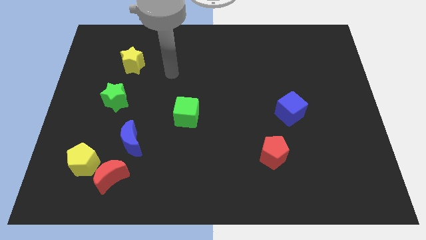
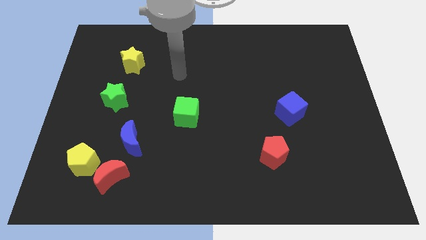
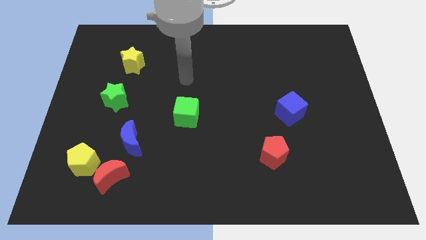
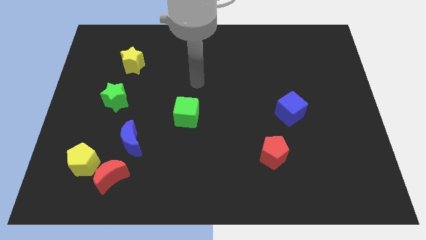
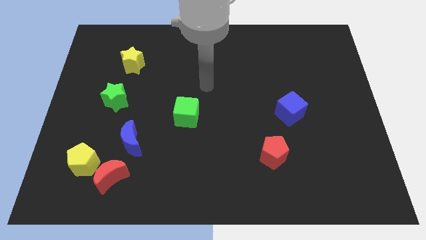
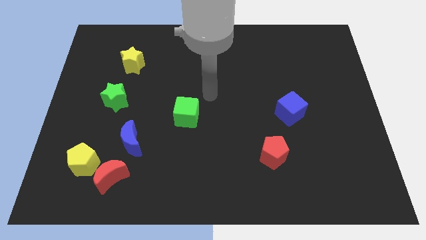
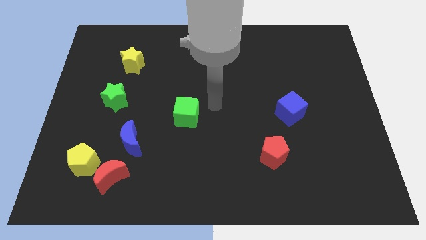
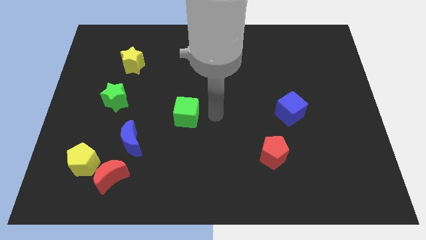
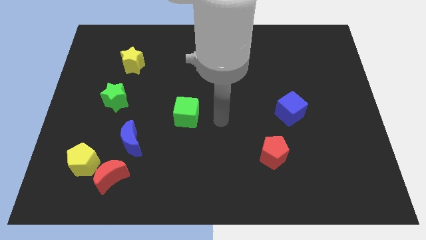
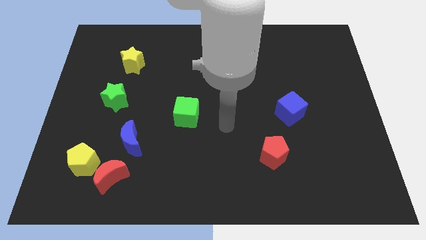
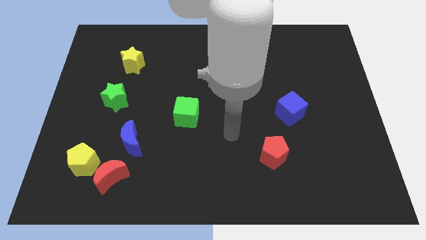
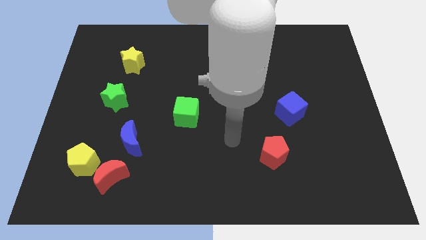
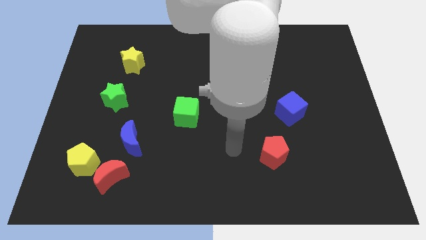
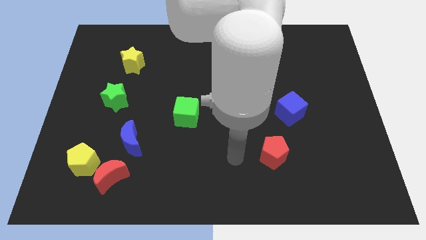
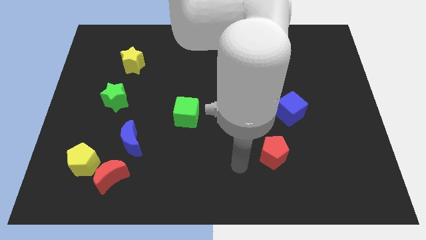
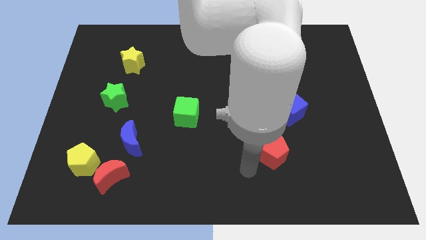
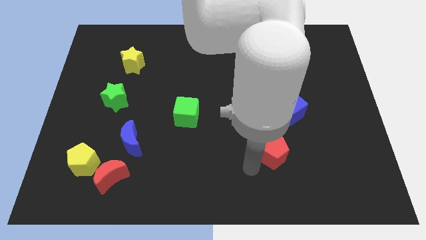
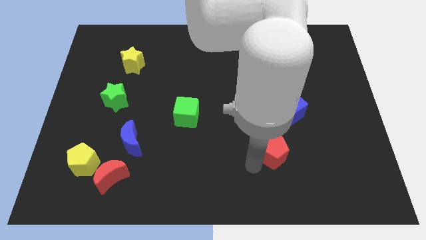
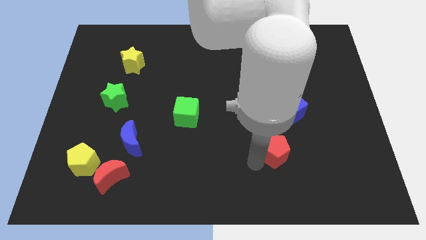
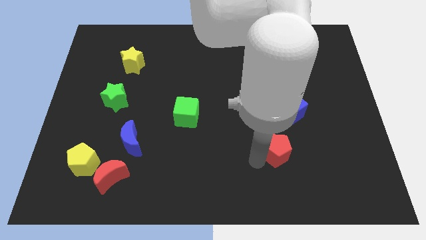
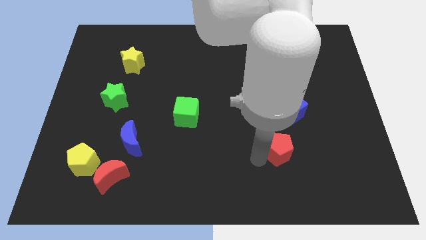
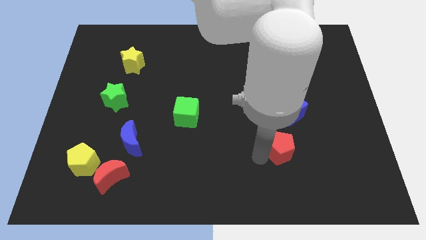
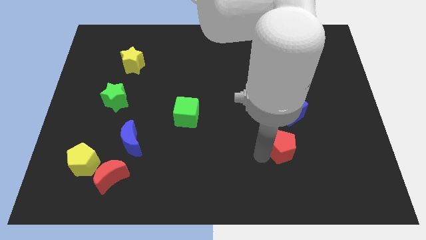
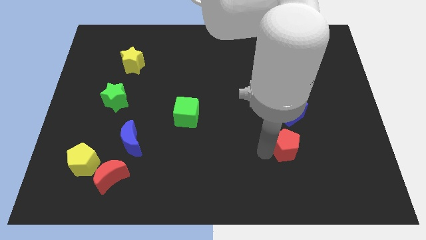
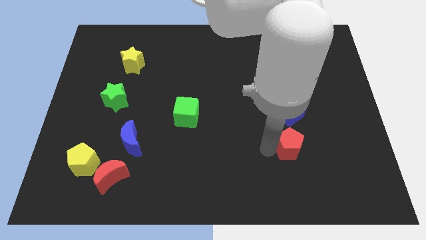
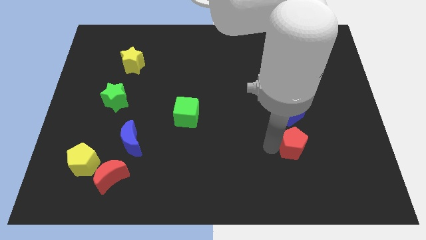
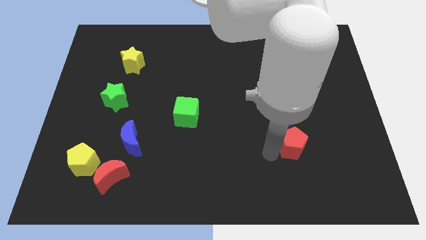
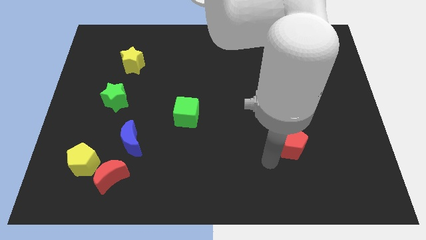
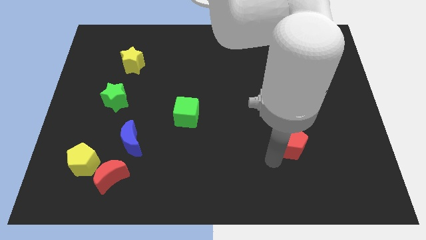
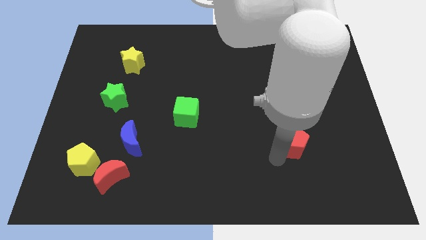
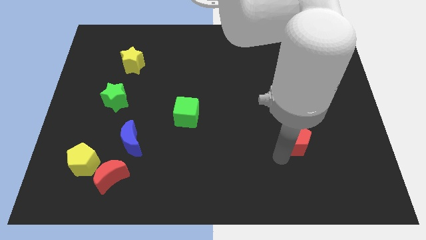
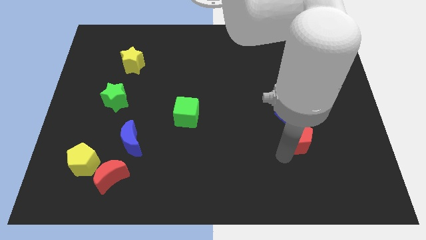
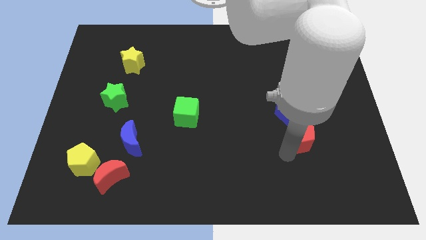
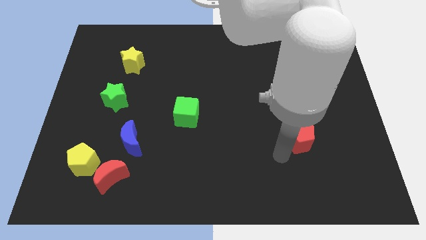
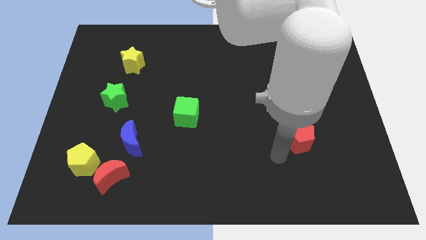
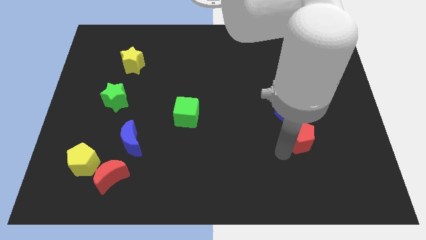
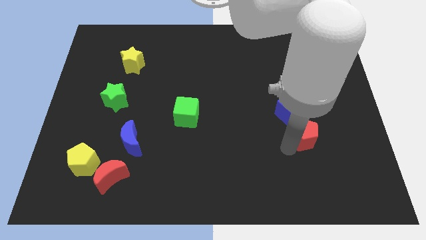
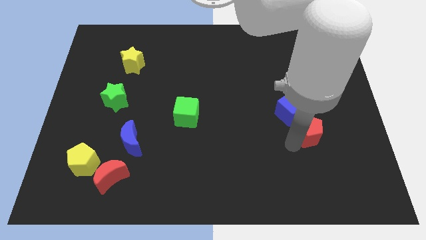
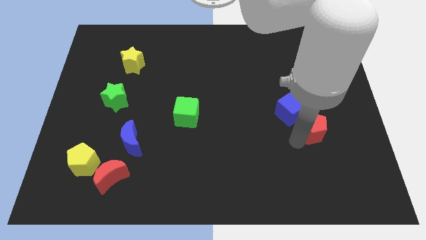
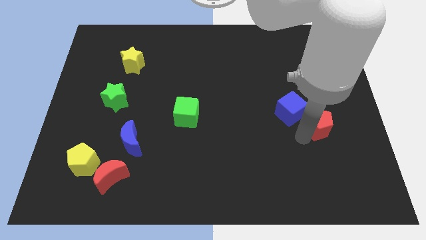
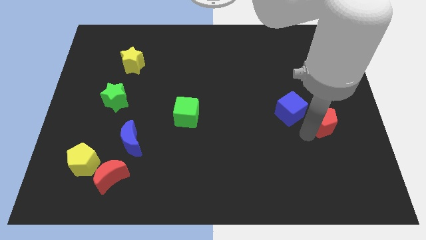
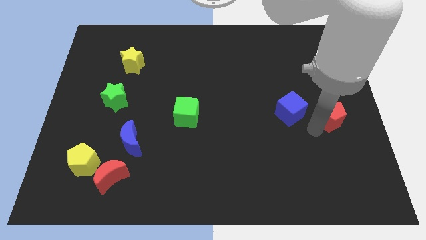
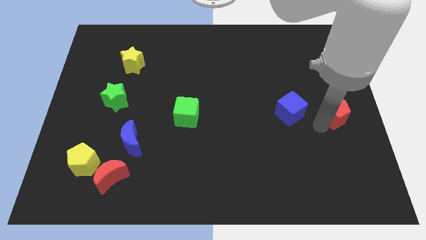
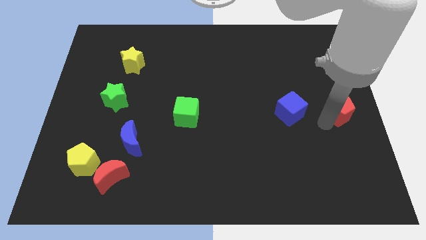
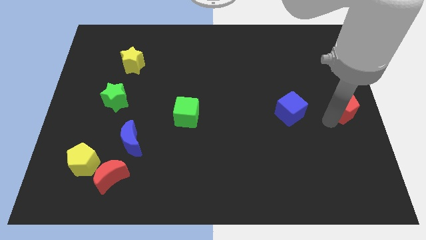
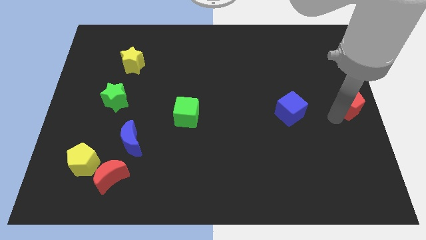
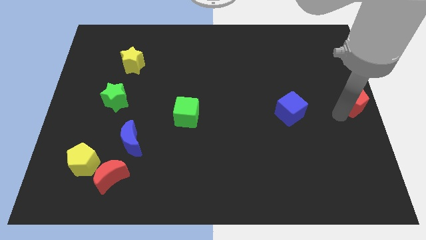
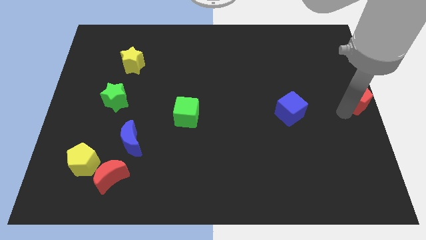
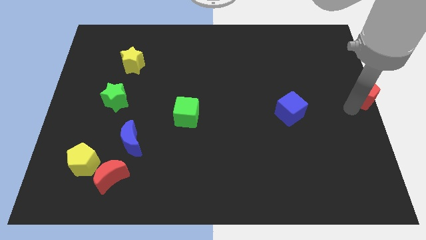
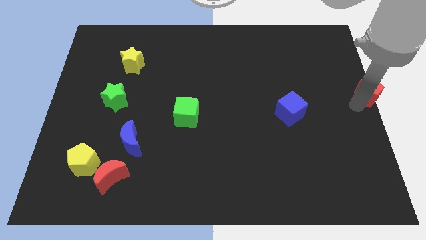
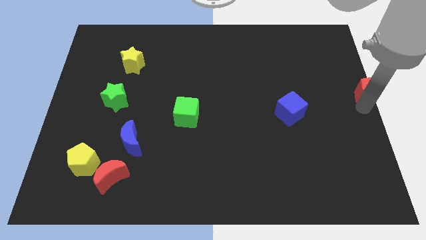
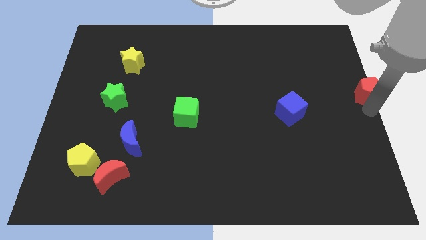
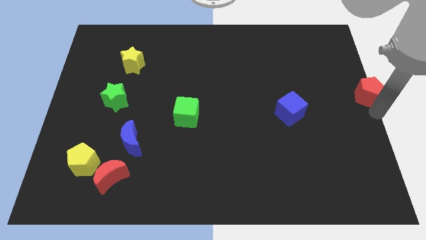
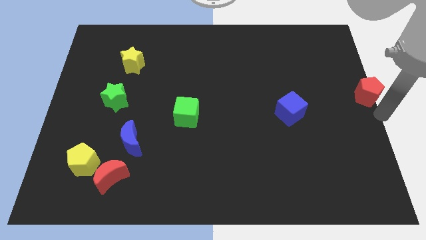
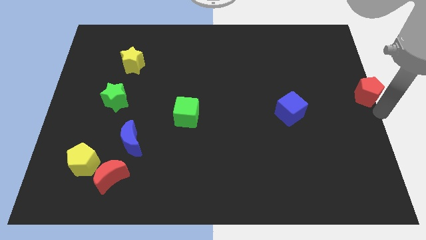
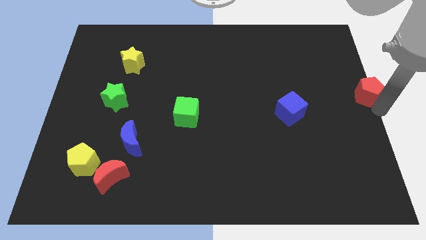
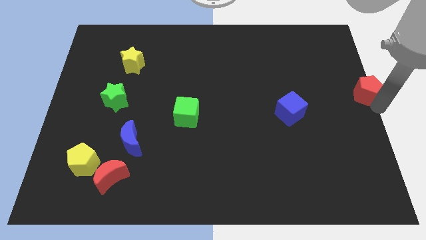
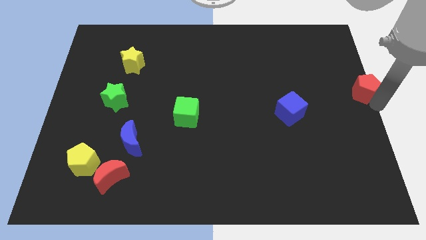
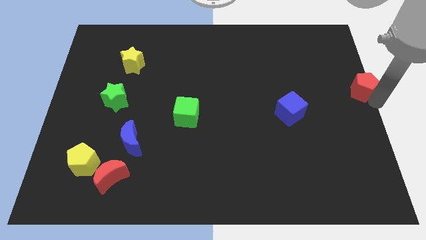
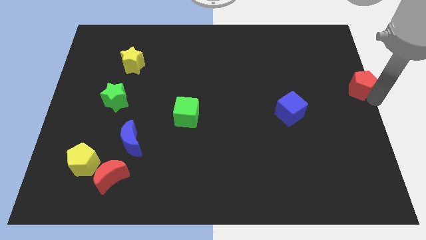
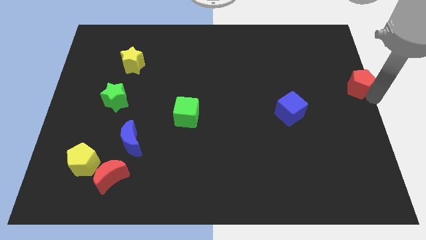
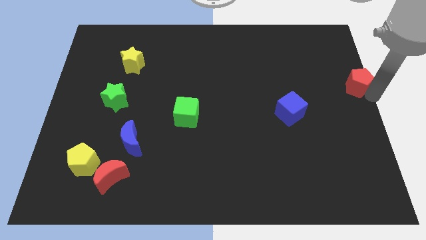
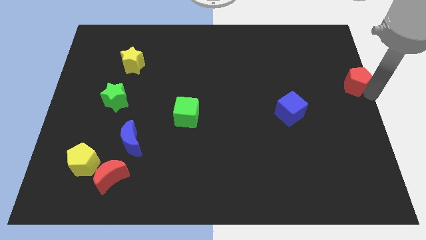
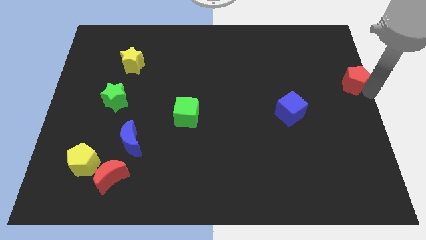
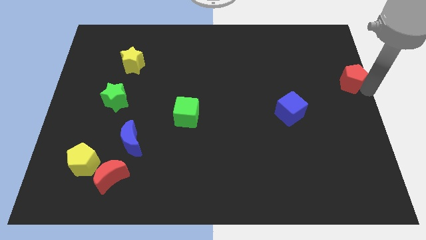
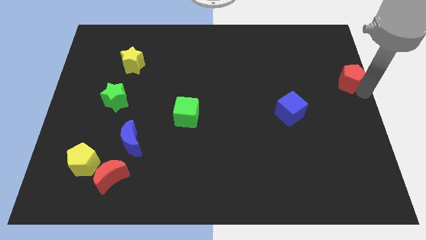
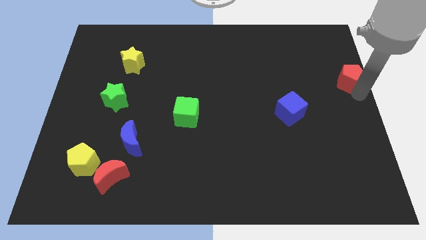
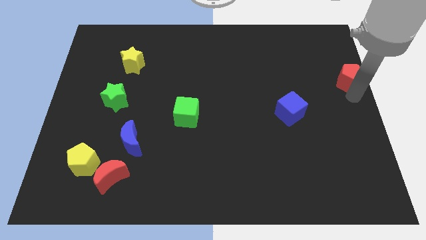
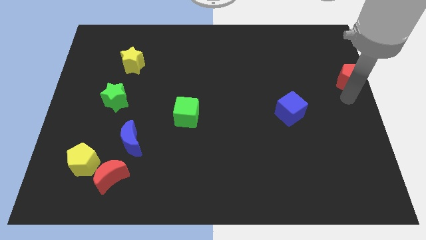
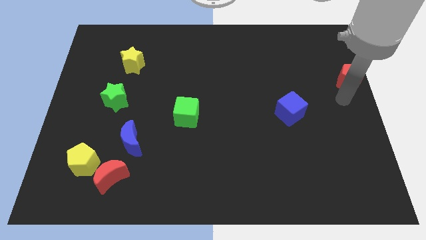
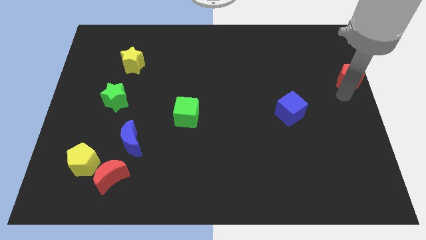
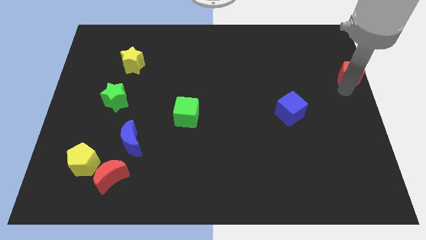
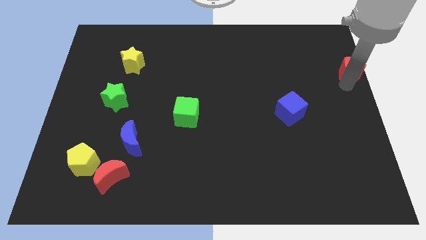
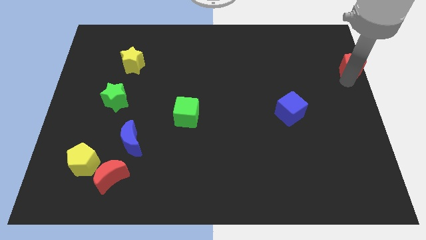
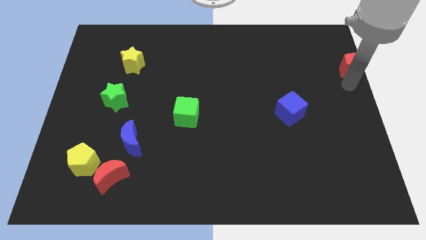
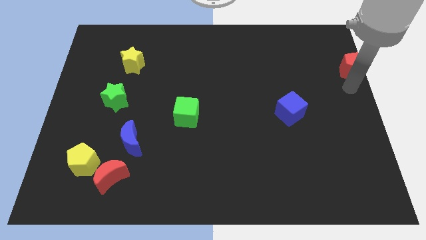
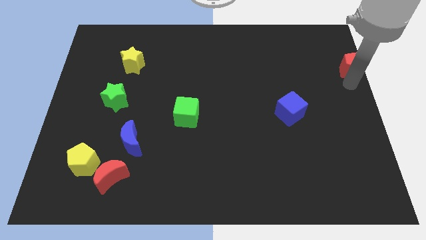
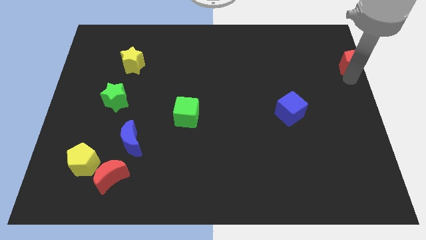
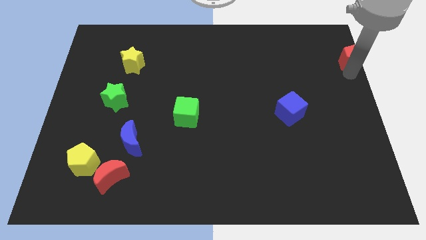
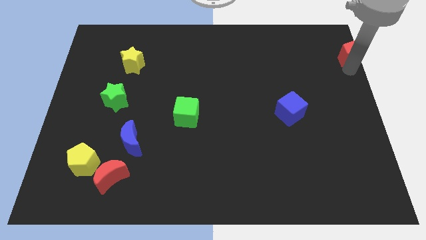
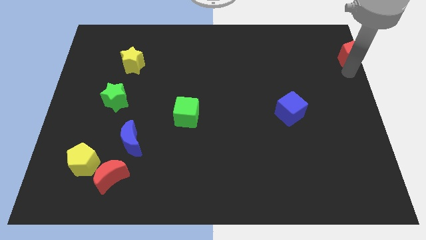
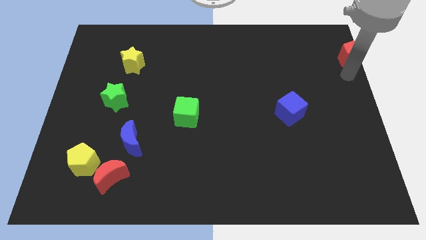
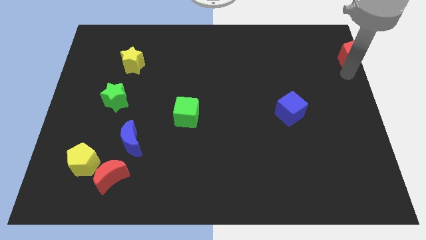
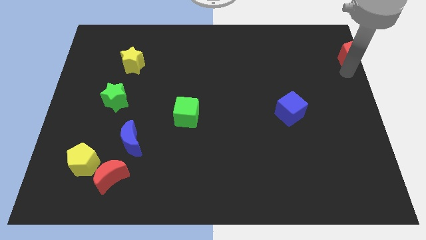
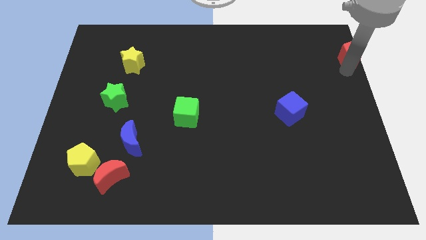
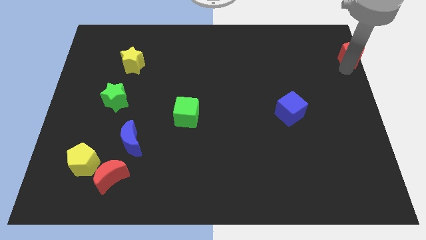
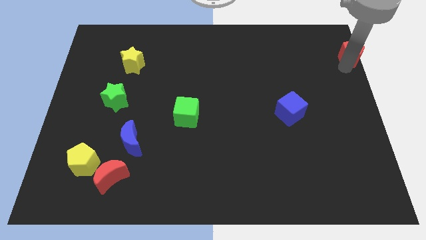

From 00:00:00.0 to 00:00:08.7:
push the red pentagon to the upper right corner
